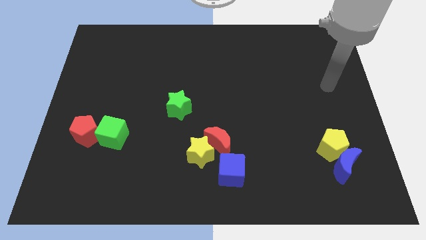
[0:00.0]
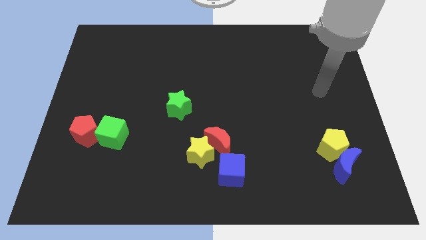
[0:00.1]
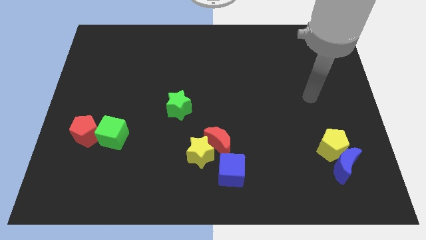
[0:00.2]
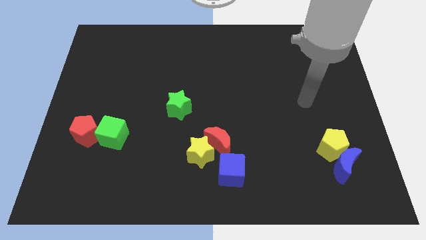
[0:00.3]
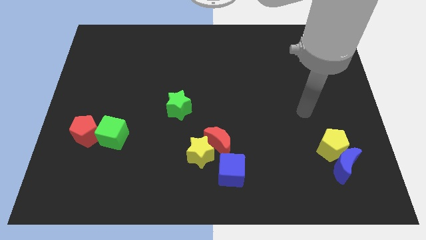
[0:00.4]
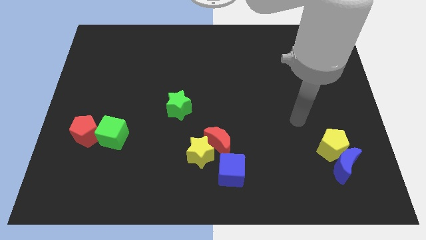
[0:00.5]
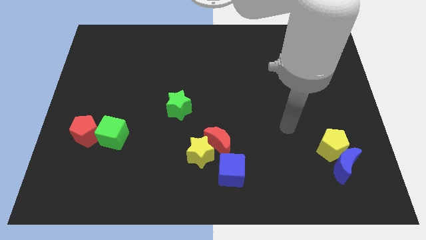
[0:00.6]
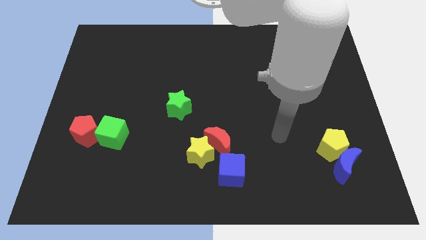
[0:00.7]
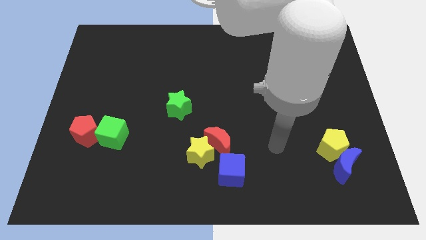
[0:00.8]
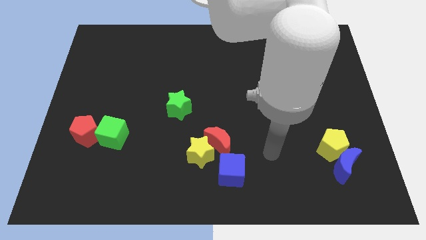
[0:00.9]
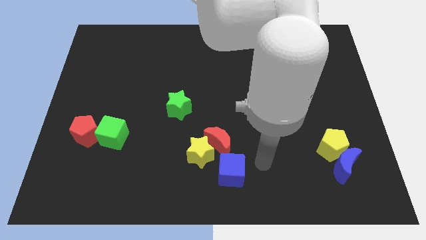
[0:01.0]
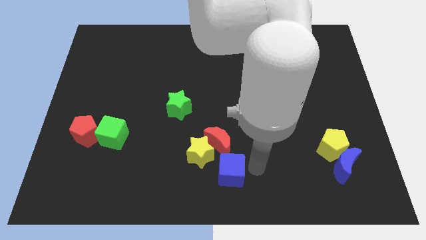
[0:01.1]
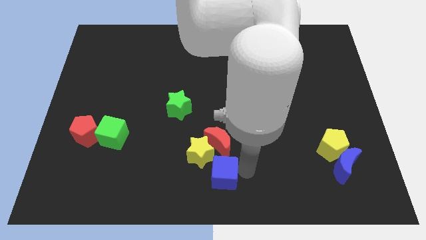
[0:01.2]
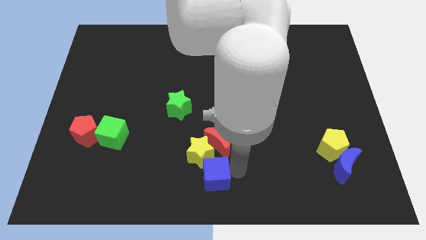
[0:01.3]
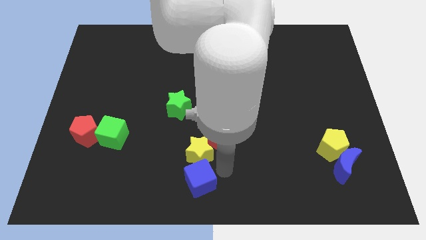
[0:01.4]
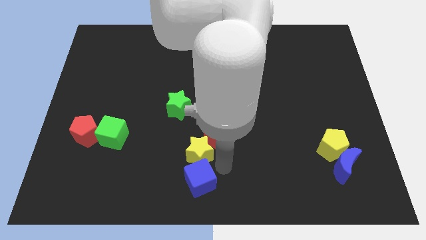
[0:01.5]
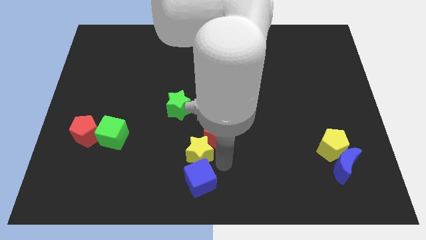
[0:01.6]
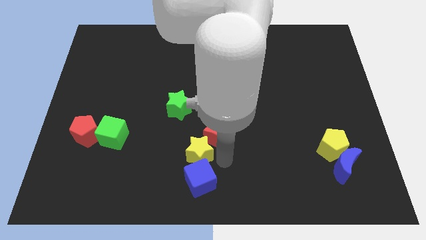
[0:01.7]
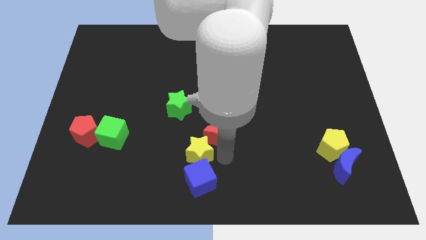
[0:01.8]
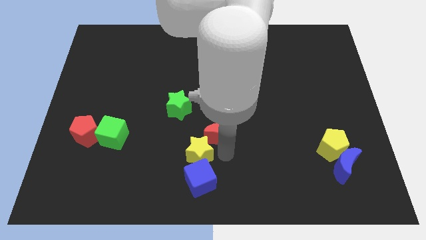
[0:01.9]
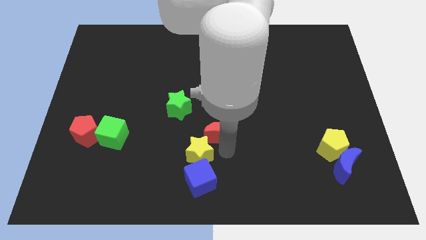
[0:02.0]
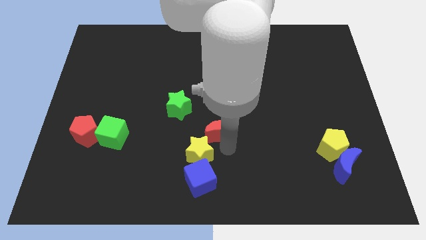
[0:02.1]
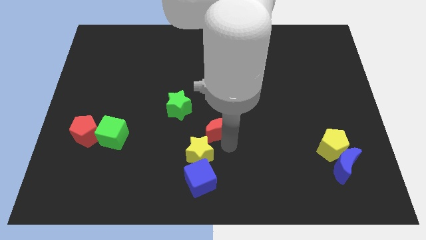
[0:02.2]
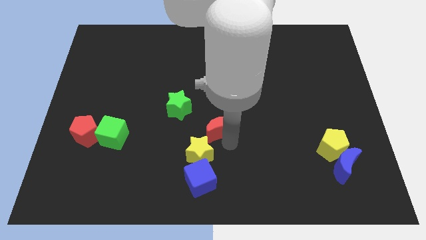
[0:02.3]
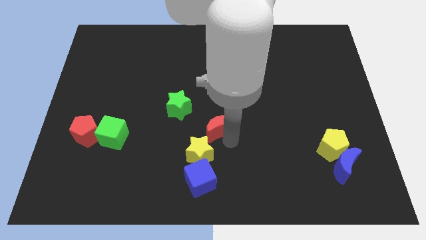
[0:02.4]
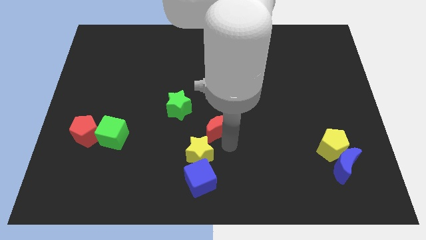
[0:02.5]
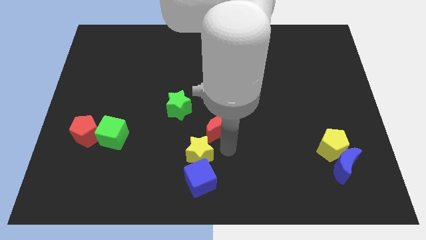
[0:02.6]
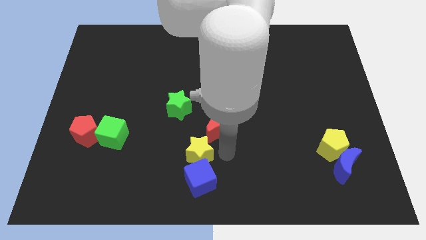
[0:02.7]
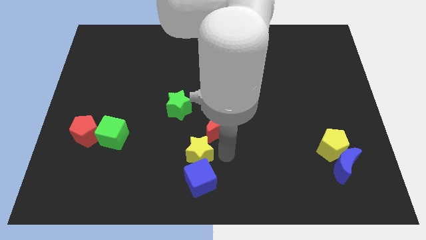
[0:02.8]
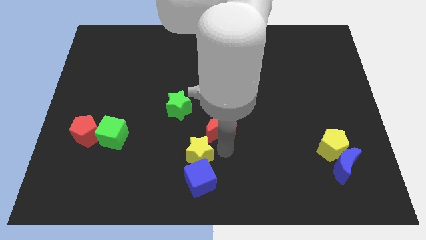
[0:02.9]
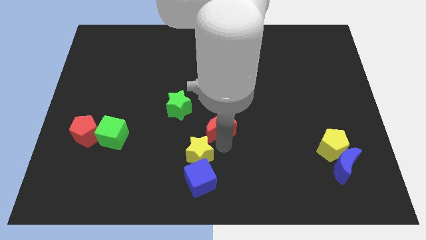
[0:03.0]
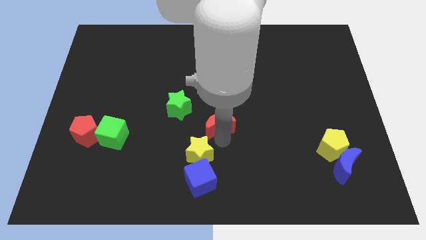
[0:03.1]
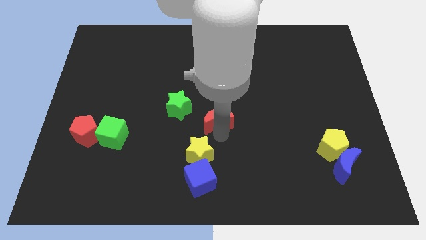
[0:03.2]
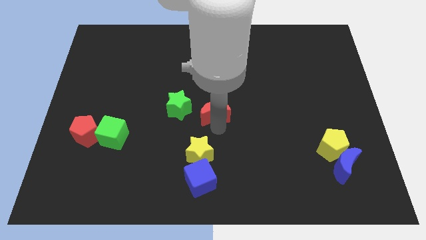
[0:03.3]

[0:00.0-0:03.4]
slide the red moon upwards somewhat

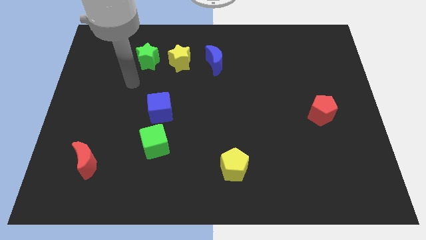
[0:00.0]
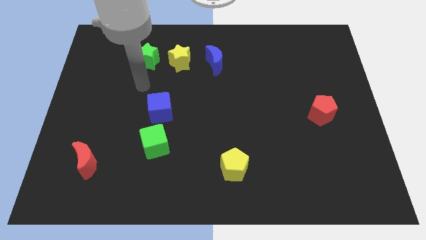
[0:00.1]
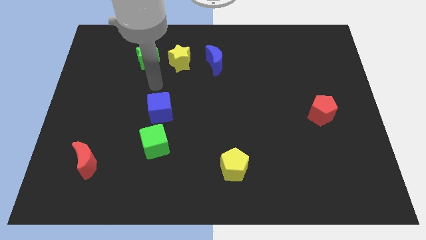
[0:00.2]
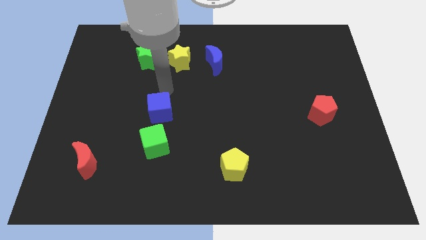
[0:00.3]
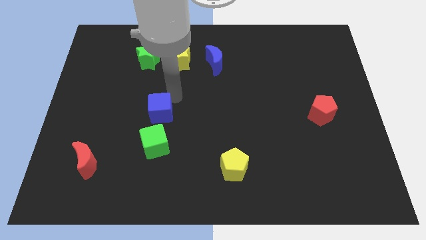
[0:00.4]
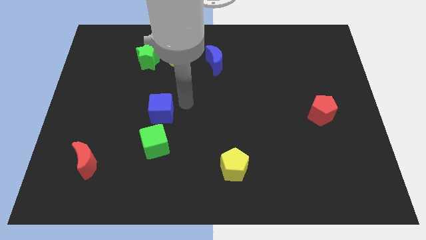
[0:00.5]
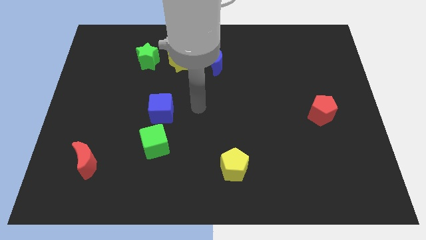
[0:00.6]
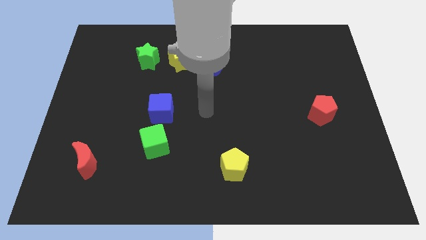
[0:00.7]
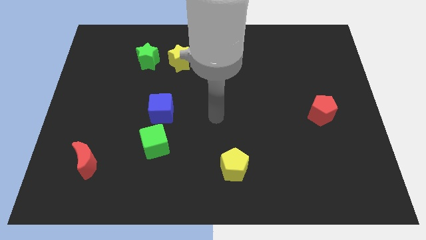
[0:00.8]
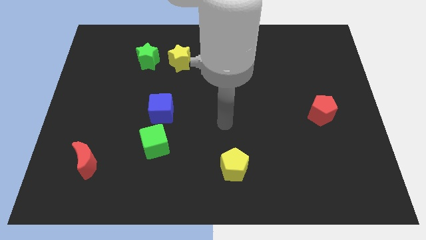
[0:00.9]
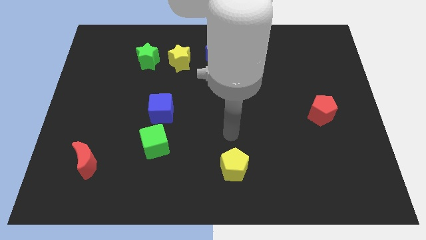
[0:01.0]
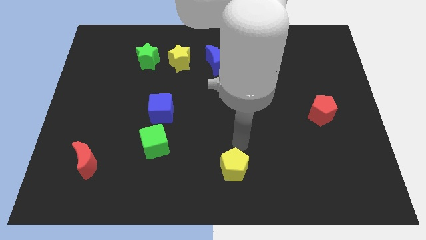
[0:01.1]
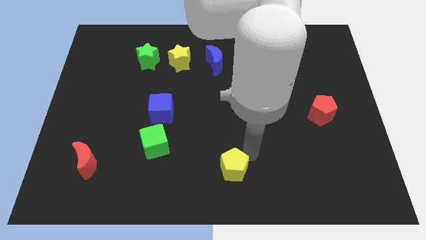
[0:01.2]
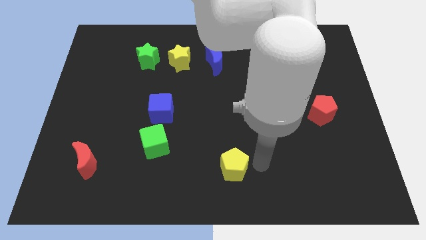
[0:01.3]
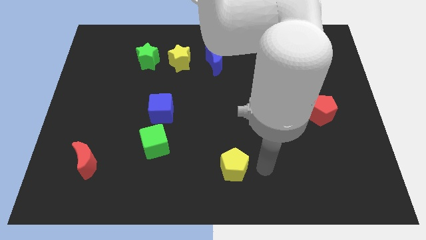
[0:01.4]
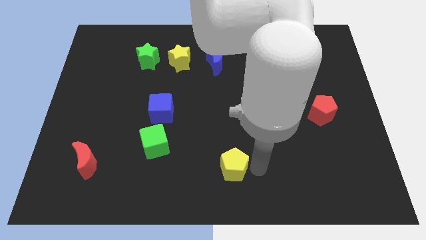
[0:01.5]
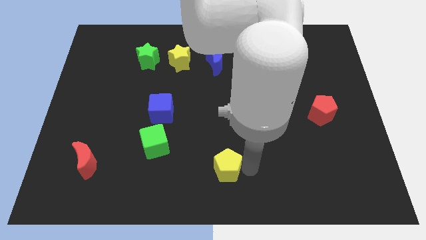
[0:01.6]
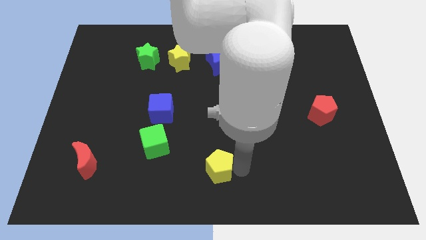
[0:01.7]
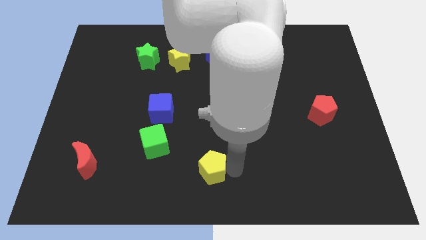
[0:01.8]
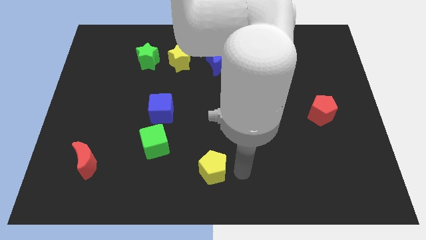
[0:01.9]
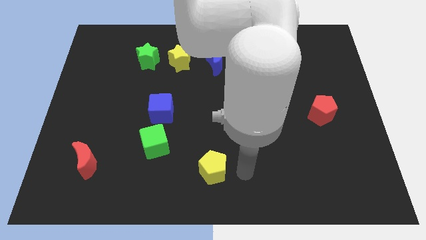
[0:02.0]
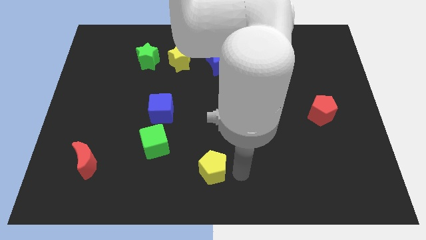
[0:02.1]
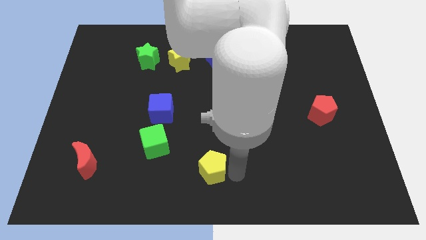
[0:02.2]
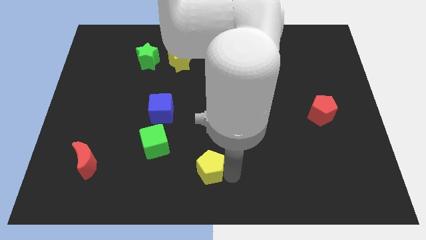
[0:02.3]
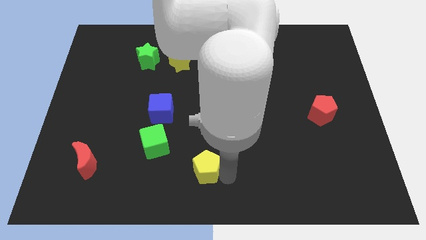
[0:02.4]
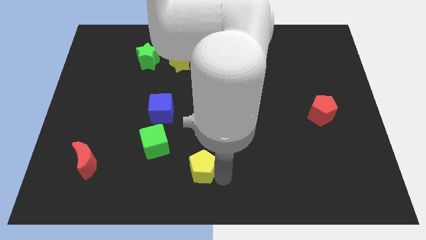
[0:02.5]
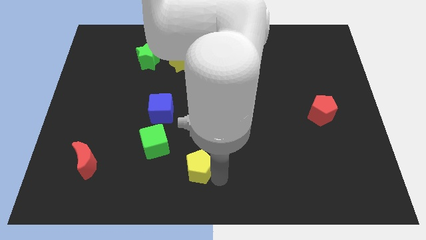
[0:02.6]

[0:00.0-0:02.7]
slightly push the yellow pentagon left

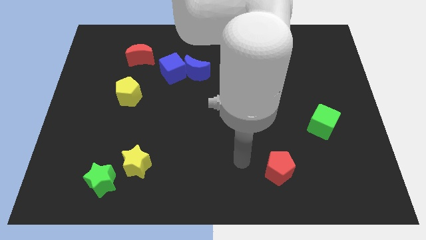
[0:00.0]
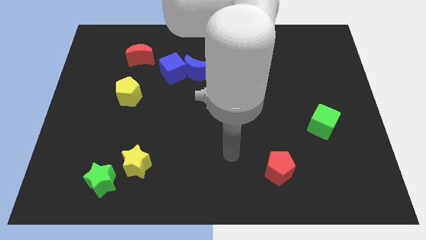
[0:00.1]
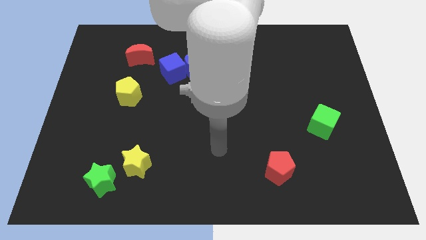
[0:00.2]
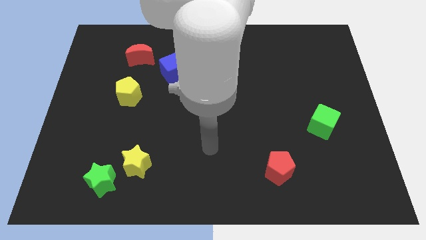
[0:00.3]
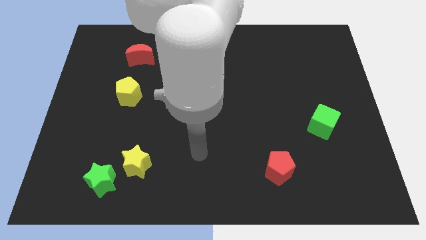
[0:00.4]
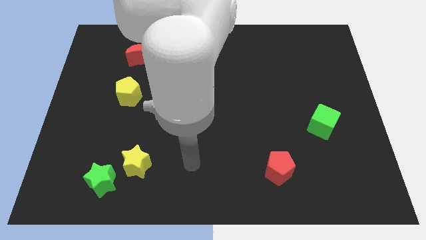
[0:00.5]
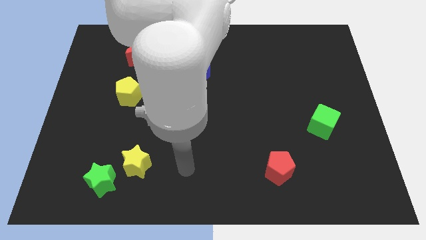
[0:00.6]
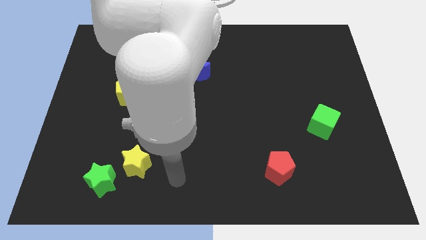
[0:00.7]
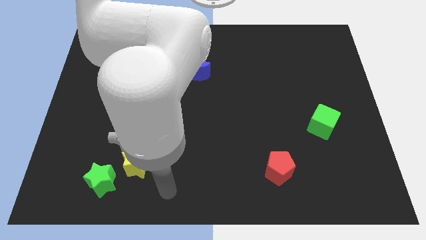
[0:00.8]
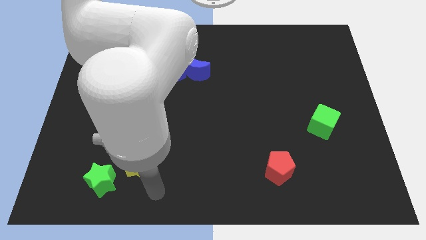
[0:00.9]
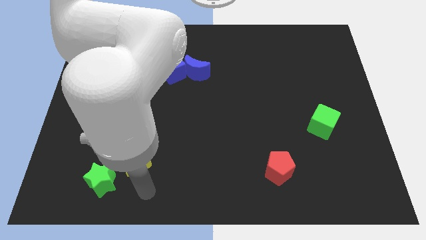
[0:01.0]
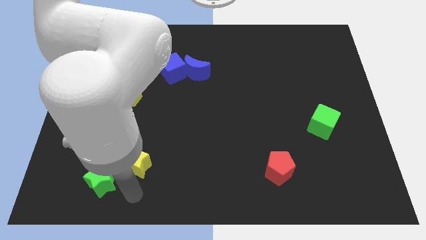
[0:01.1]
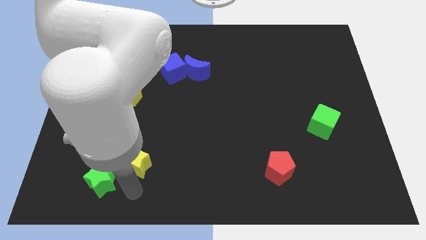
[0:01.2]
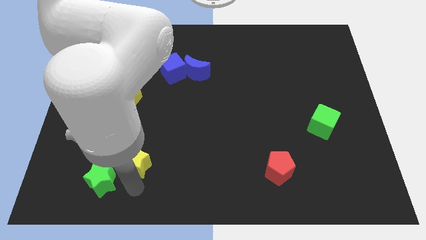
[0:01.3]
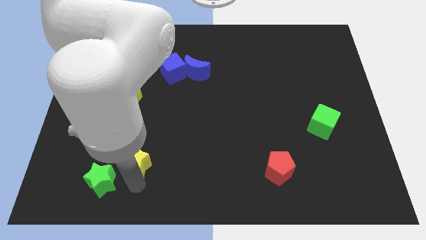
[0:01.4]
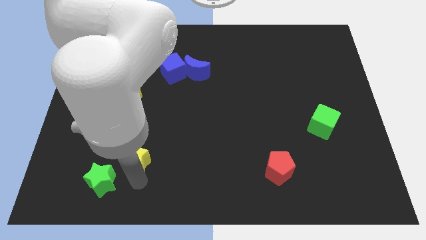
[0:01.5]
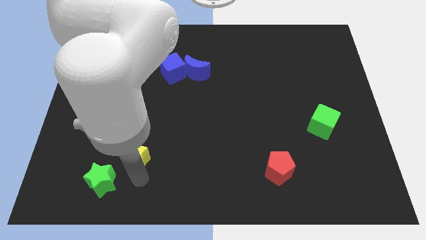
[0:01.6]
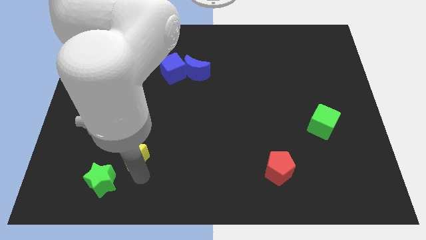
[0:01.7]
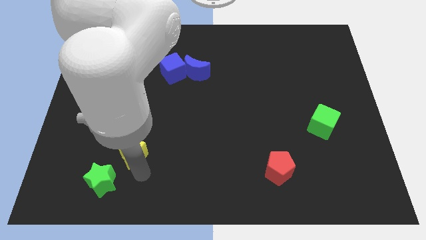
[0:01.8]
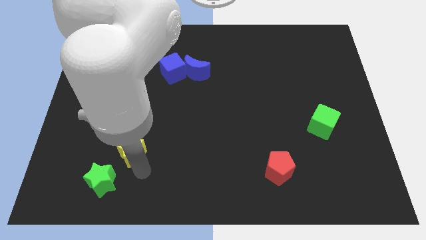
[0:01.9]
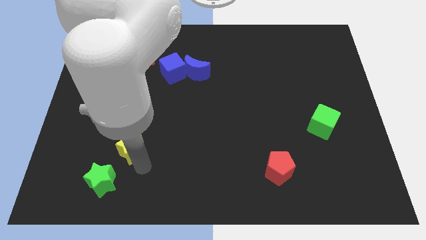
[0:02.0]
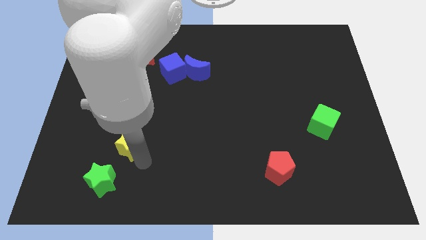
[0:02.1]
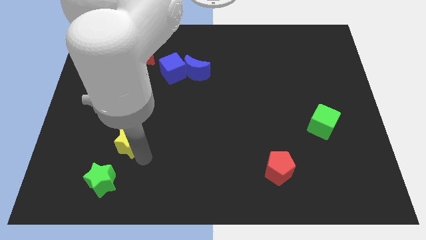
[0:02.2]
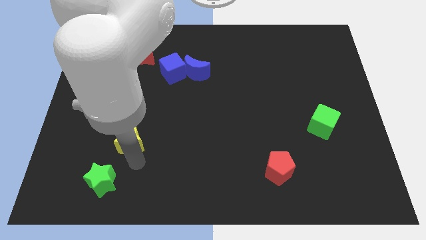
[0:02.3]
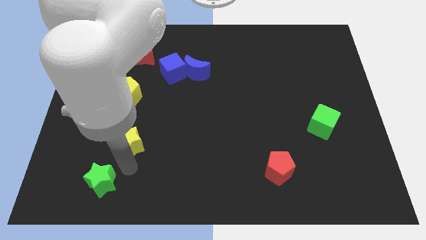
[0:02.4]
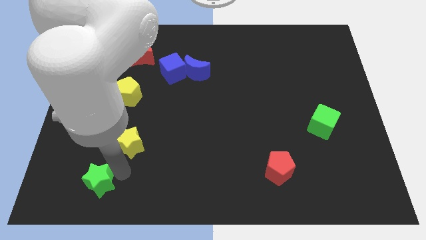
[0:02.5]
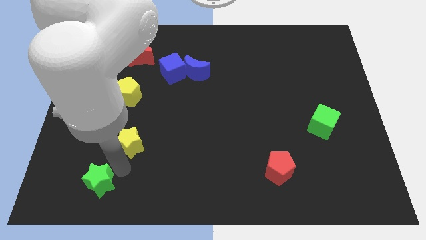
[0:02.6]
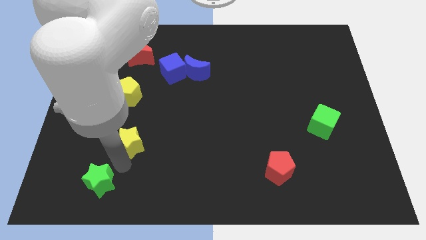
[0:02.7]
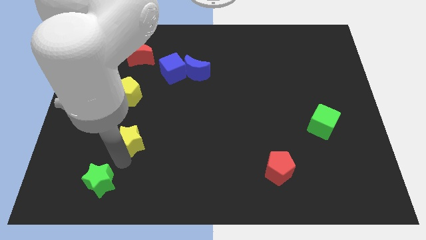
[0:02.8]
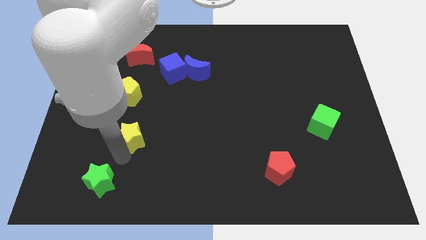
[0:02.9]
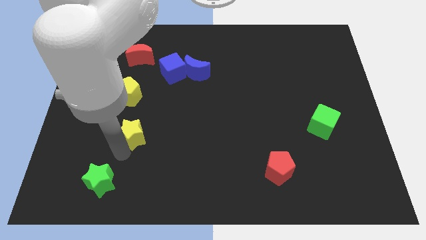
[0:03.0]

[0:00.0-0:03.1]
push the yellow star a little up
